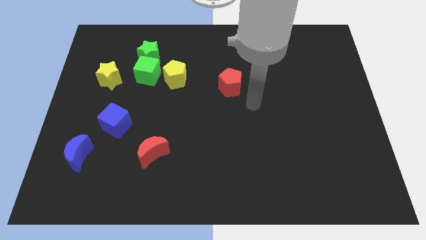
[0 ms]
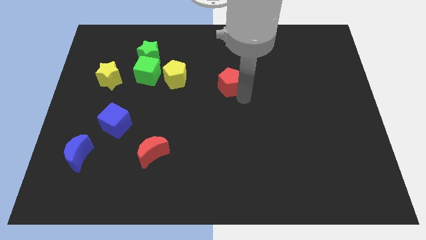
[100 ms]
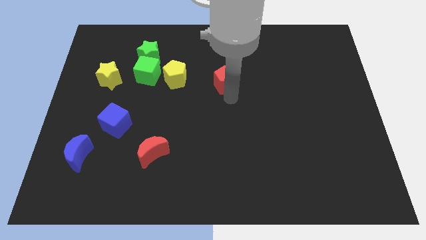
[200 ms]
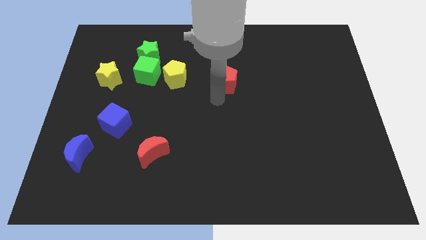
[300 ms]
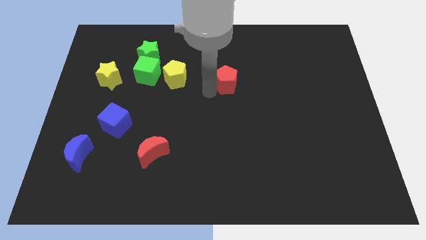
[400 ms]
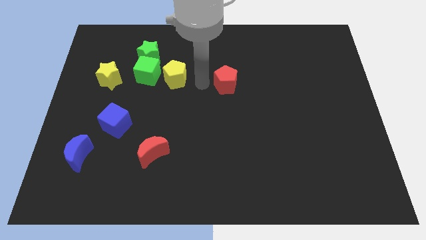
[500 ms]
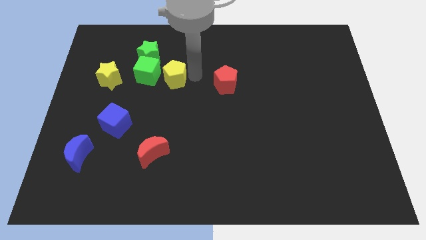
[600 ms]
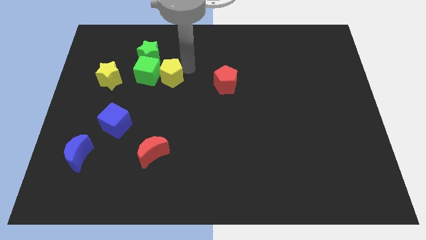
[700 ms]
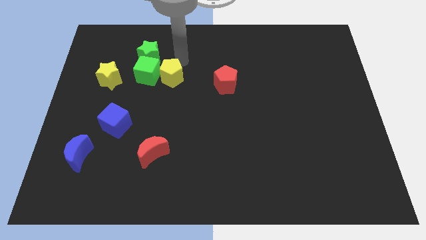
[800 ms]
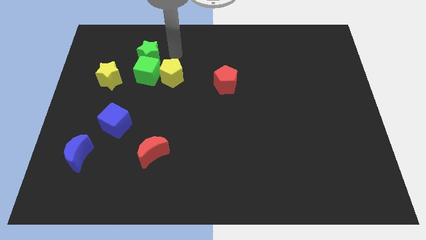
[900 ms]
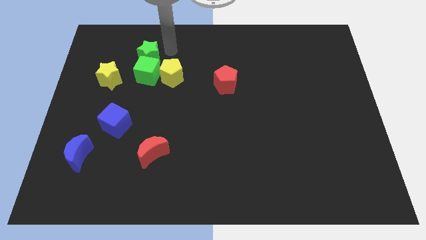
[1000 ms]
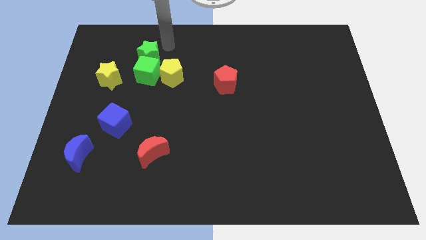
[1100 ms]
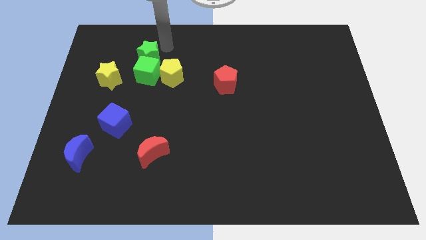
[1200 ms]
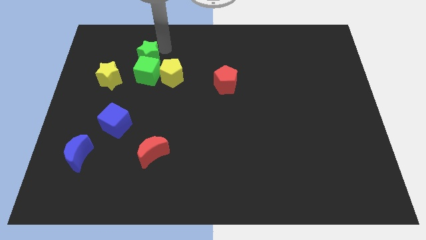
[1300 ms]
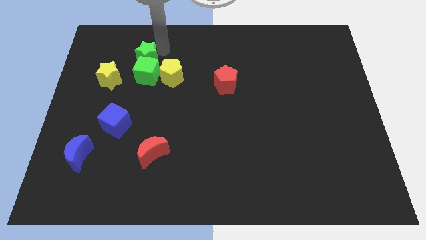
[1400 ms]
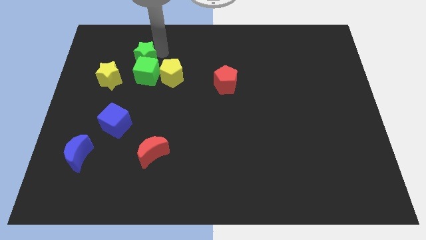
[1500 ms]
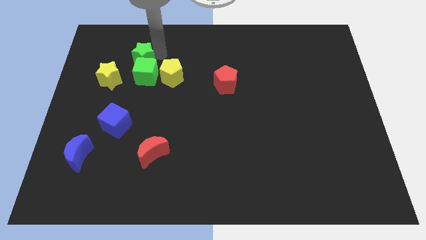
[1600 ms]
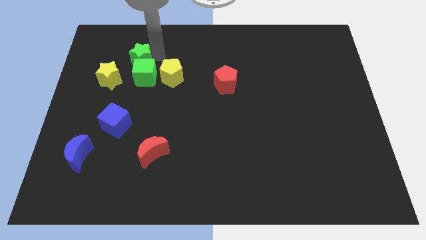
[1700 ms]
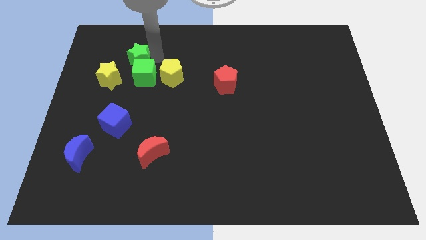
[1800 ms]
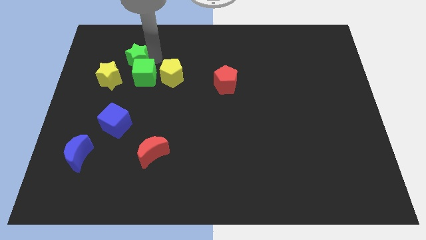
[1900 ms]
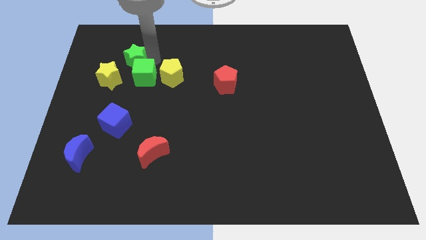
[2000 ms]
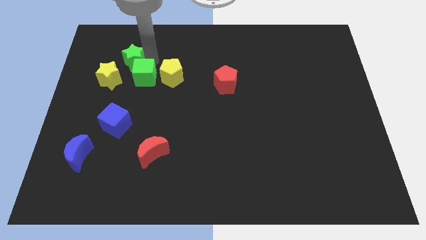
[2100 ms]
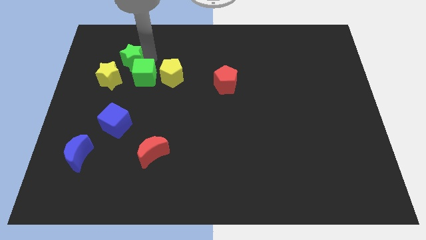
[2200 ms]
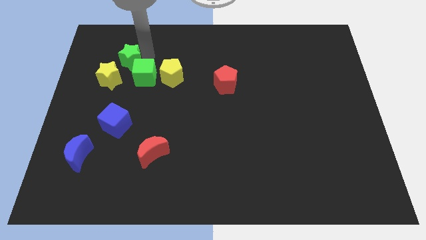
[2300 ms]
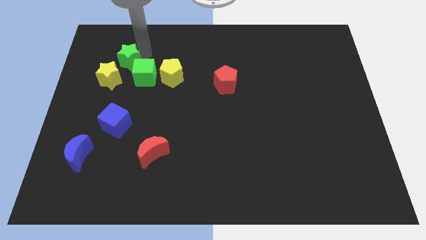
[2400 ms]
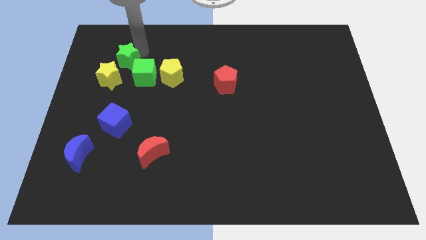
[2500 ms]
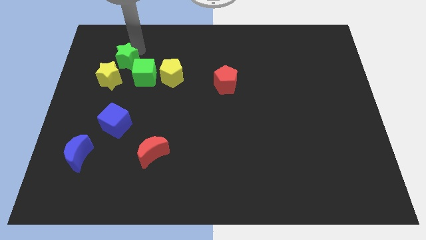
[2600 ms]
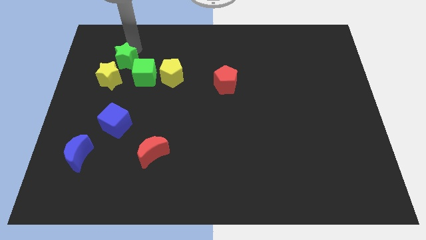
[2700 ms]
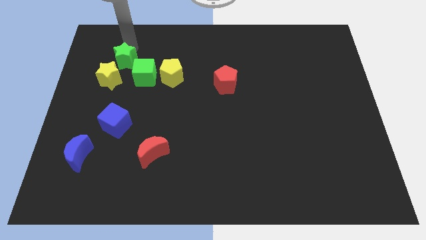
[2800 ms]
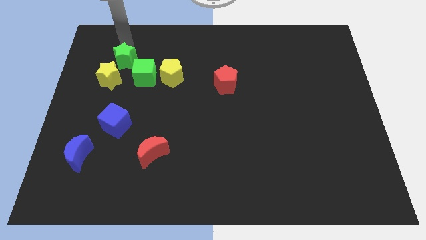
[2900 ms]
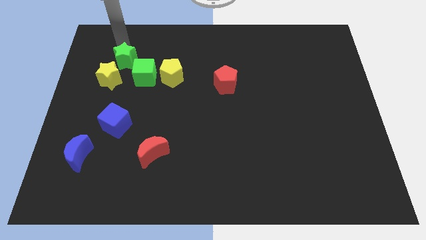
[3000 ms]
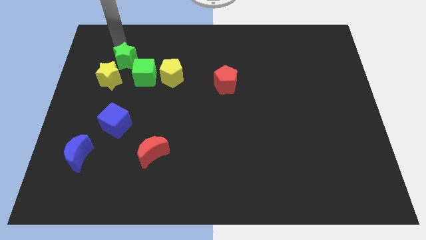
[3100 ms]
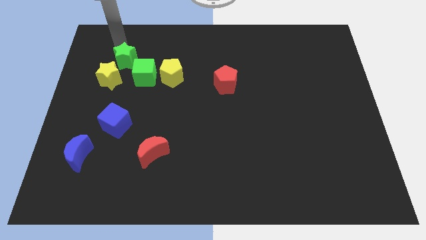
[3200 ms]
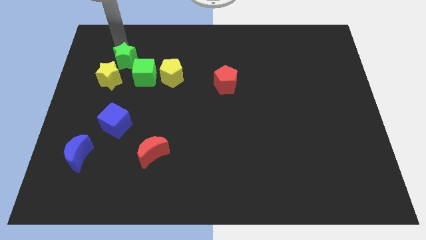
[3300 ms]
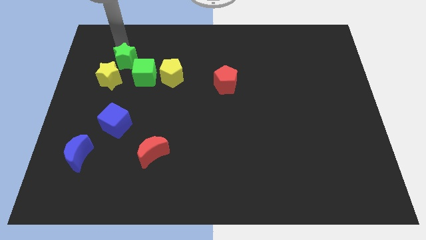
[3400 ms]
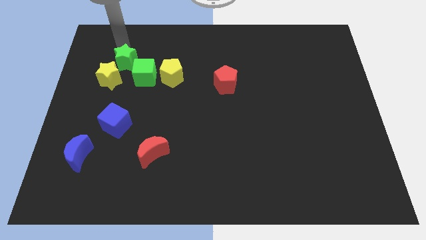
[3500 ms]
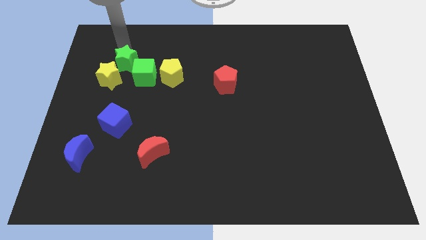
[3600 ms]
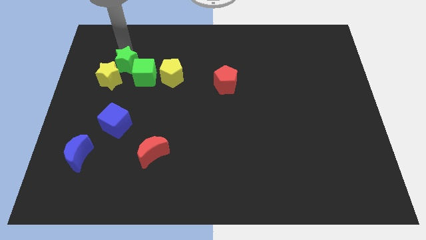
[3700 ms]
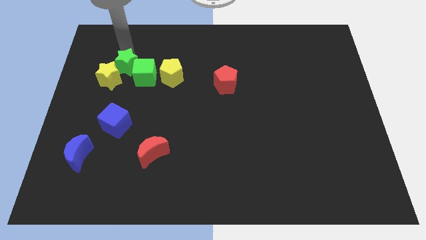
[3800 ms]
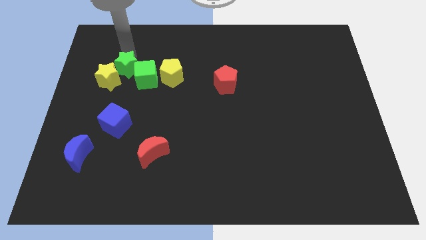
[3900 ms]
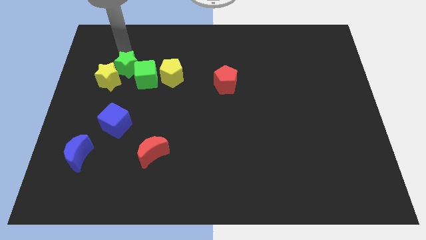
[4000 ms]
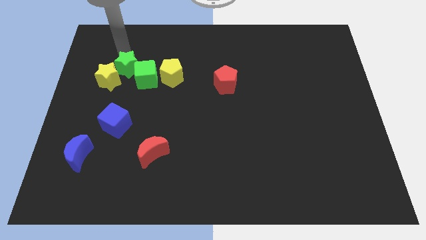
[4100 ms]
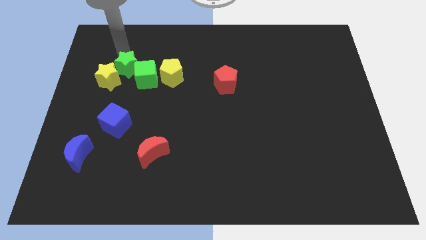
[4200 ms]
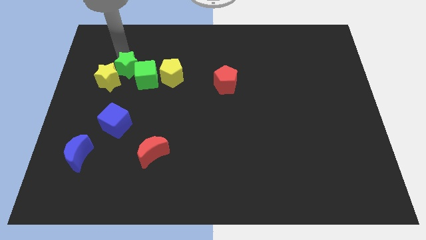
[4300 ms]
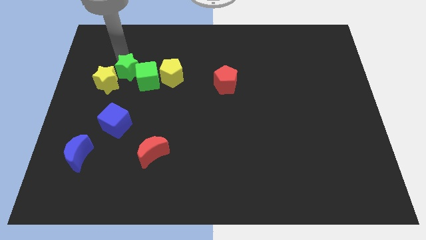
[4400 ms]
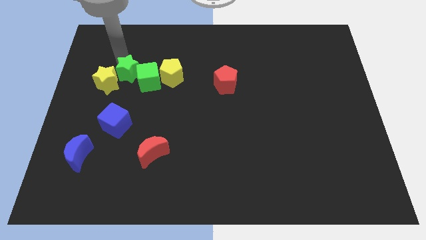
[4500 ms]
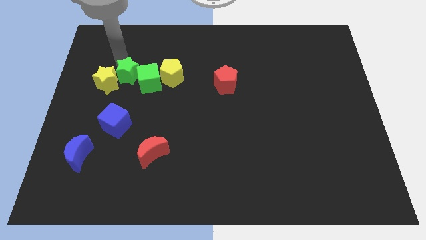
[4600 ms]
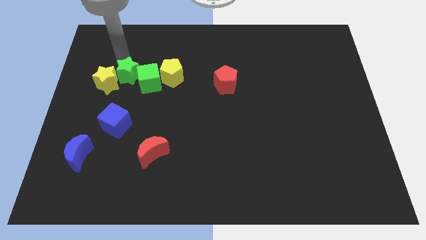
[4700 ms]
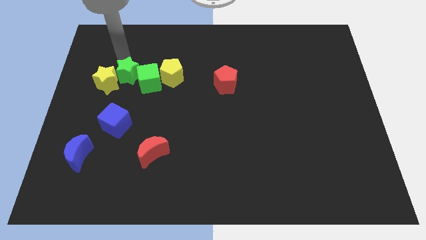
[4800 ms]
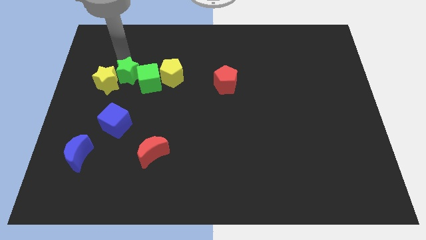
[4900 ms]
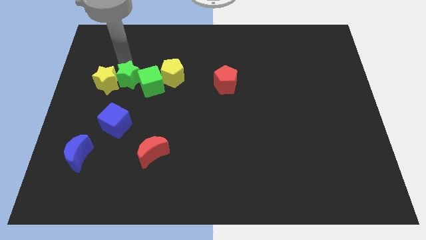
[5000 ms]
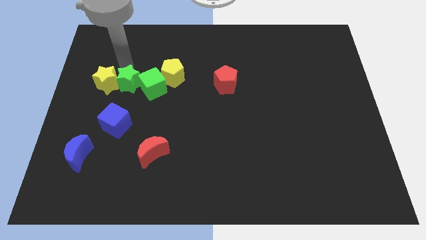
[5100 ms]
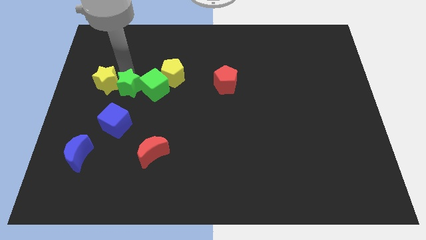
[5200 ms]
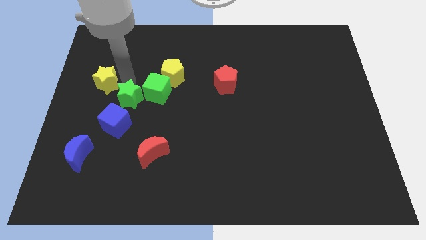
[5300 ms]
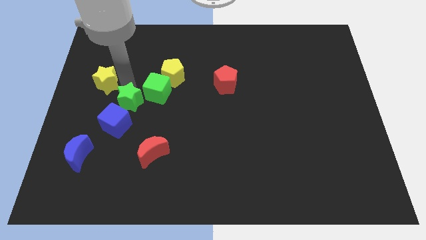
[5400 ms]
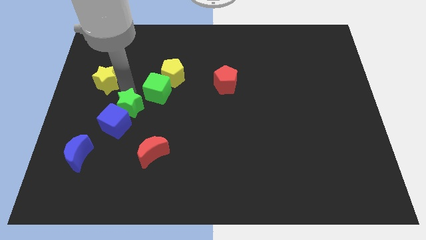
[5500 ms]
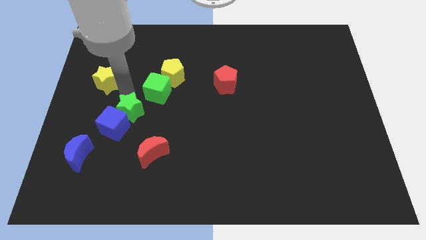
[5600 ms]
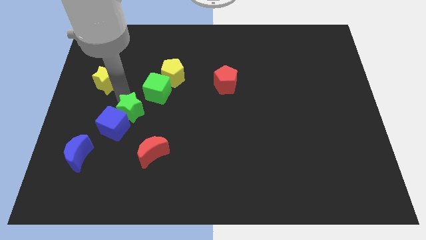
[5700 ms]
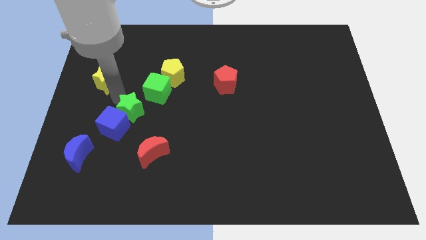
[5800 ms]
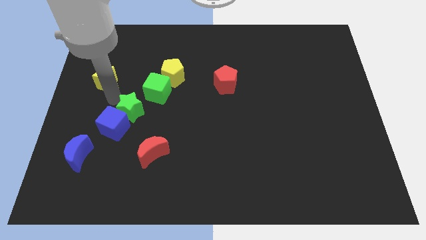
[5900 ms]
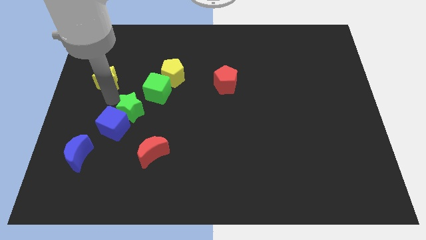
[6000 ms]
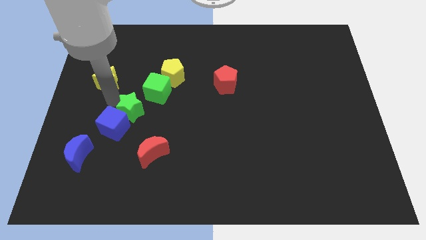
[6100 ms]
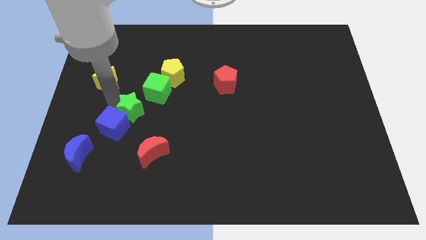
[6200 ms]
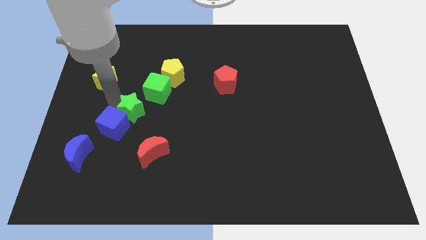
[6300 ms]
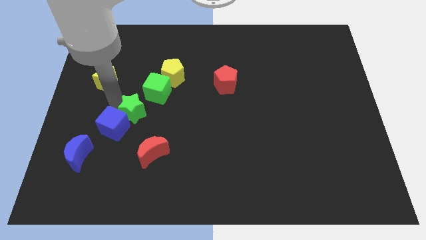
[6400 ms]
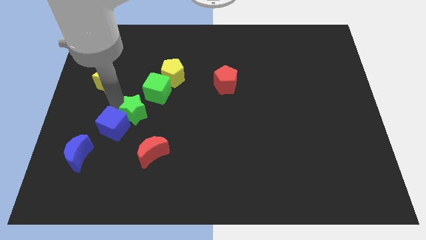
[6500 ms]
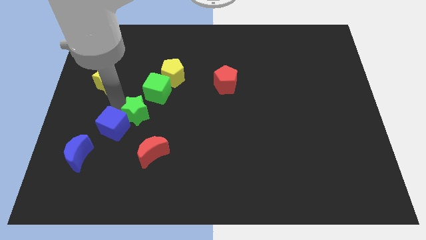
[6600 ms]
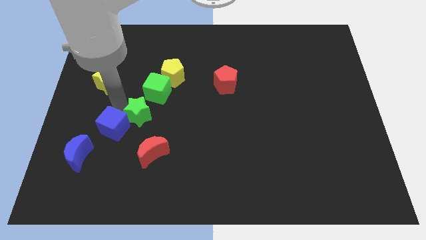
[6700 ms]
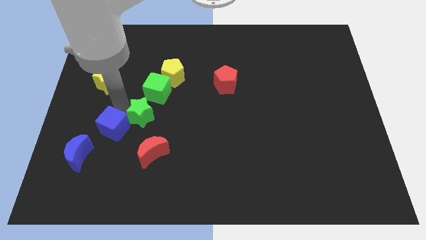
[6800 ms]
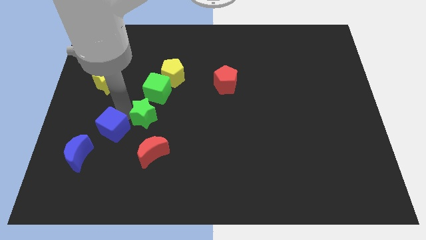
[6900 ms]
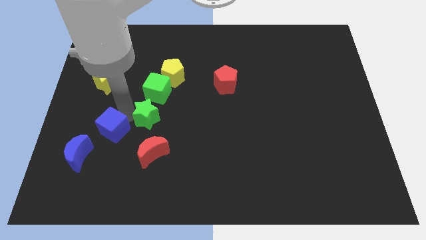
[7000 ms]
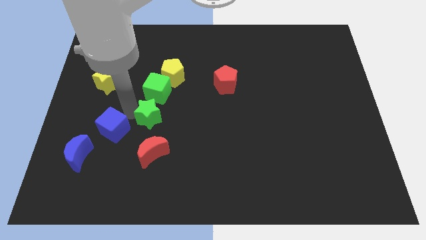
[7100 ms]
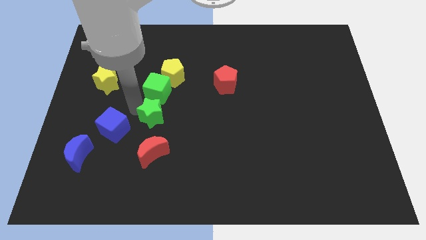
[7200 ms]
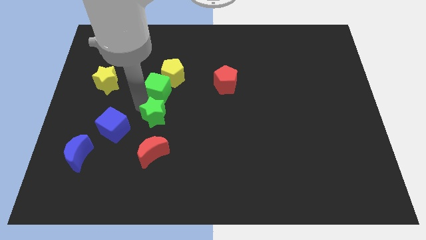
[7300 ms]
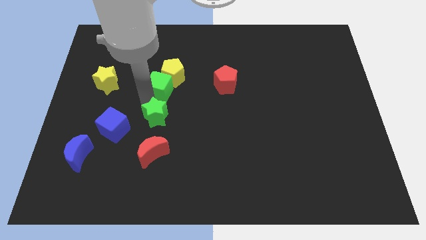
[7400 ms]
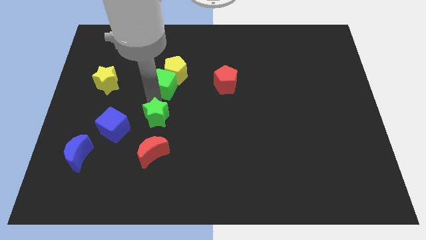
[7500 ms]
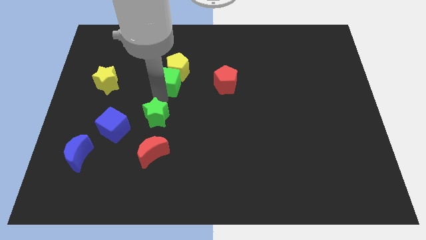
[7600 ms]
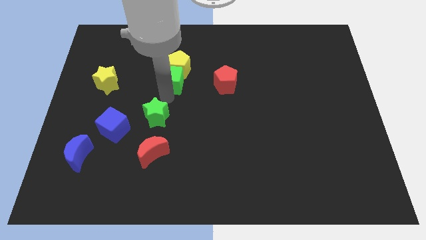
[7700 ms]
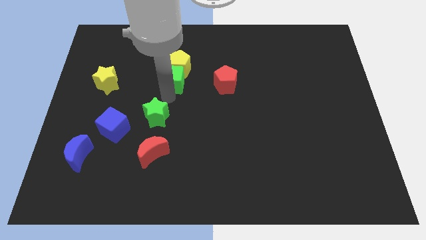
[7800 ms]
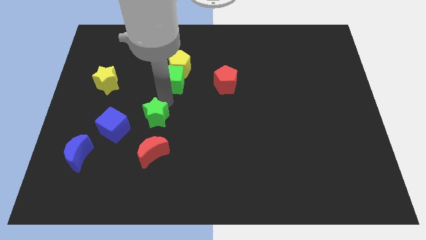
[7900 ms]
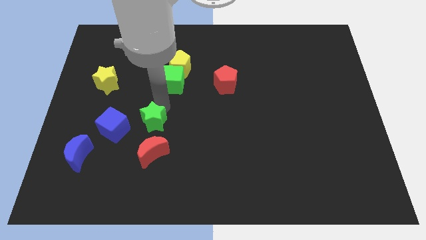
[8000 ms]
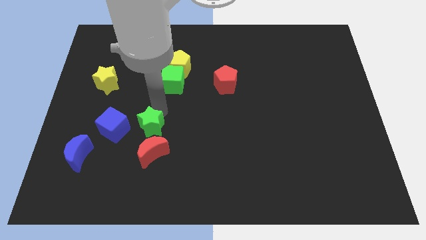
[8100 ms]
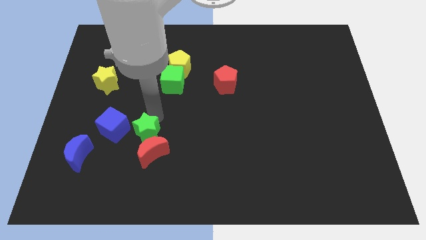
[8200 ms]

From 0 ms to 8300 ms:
push the green star towards the red moon
